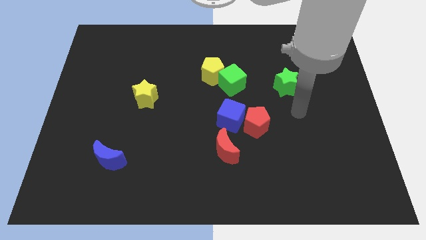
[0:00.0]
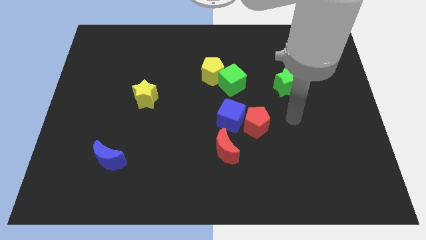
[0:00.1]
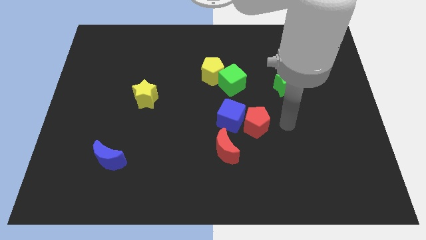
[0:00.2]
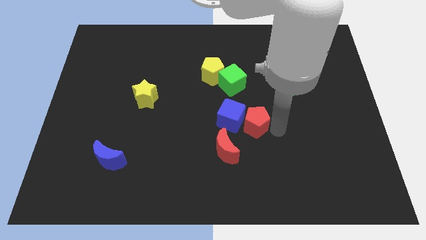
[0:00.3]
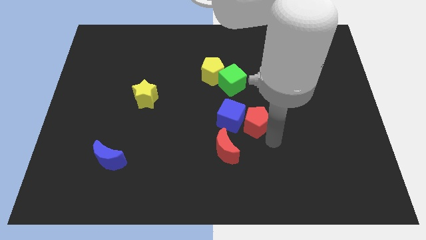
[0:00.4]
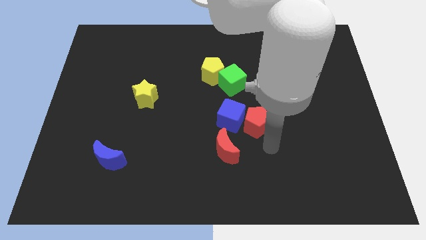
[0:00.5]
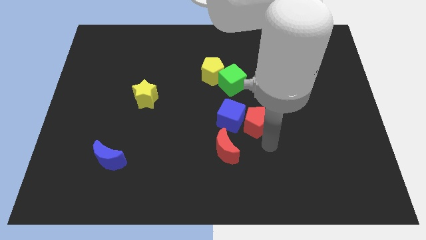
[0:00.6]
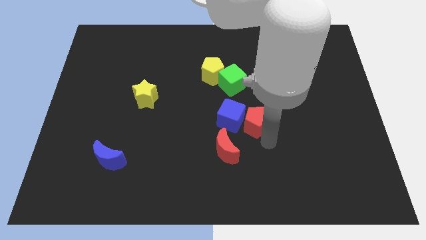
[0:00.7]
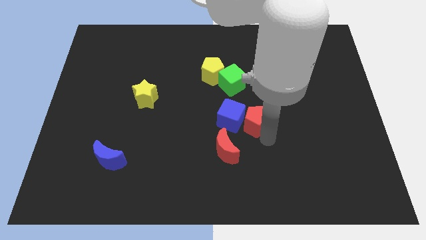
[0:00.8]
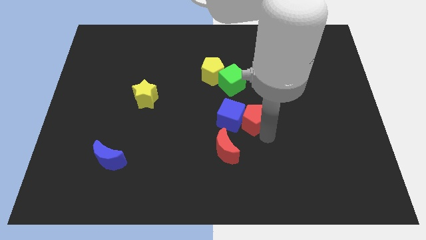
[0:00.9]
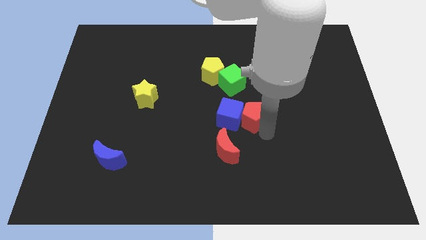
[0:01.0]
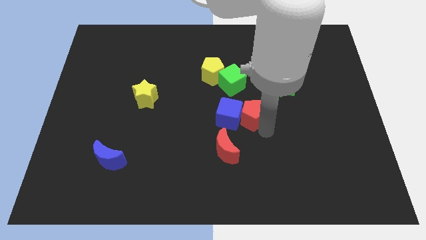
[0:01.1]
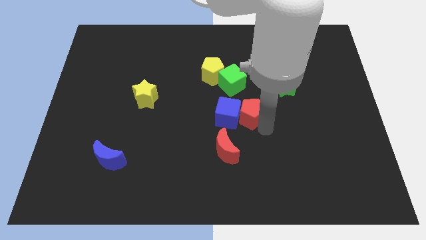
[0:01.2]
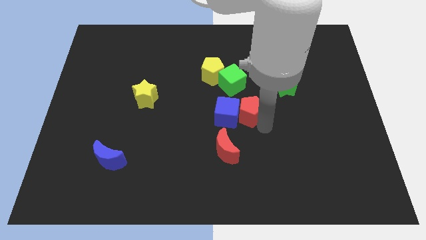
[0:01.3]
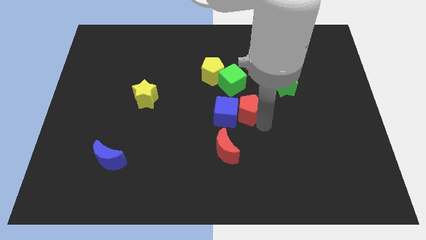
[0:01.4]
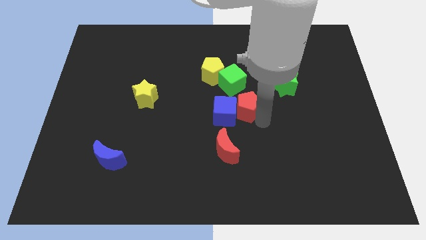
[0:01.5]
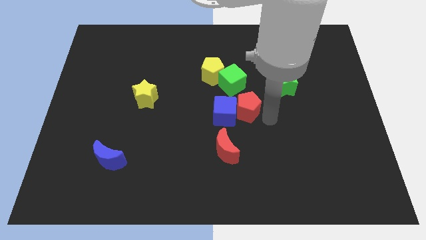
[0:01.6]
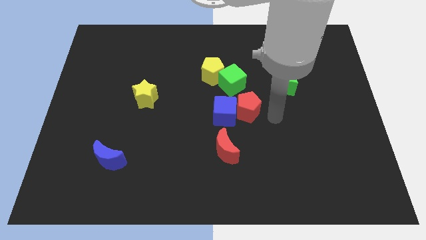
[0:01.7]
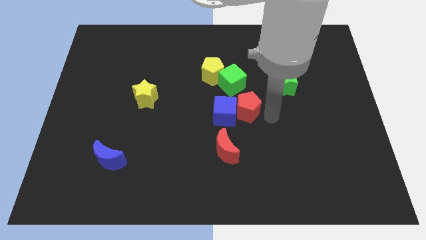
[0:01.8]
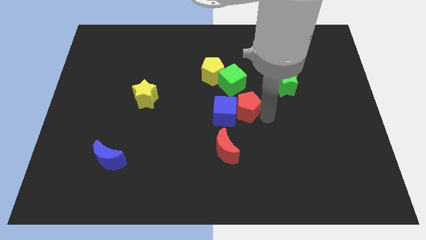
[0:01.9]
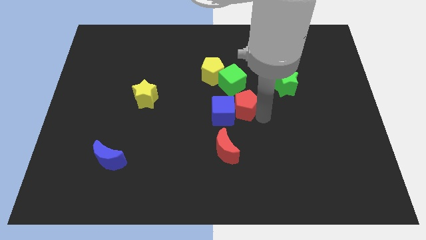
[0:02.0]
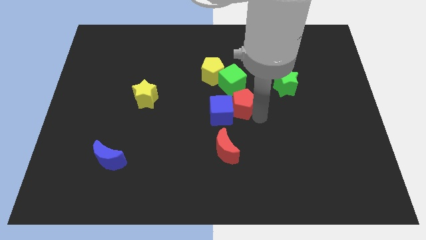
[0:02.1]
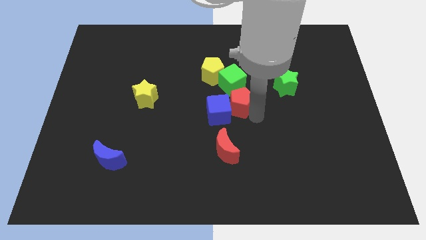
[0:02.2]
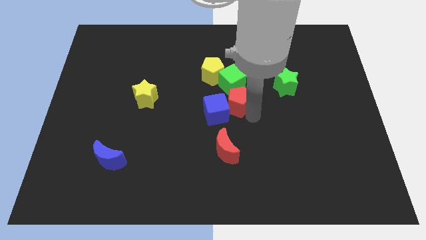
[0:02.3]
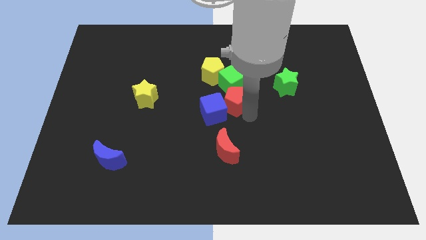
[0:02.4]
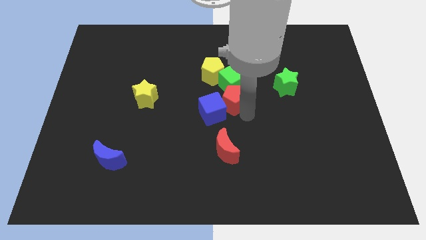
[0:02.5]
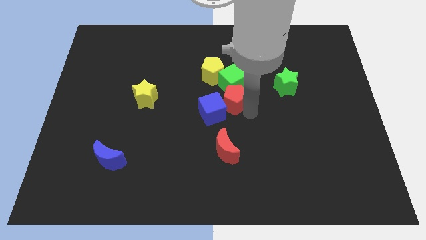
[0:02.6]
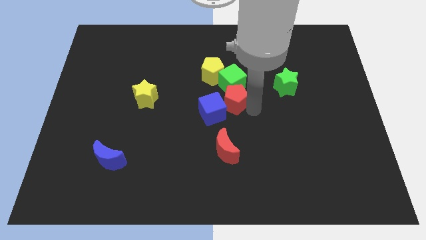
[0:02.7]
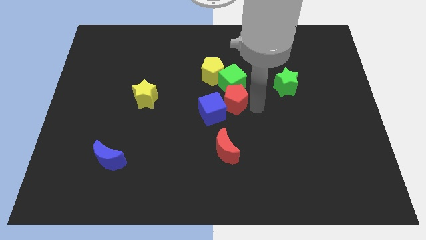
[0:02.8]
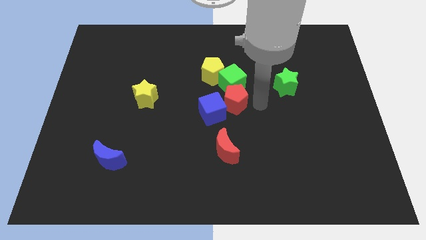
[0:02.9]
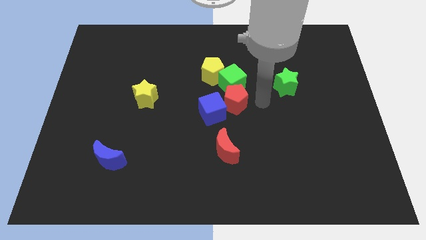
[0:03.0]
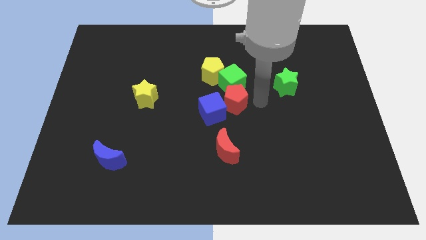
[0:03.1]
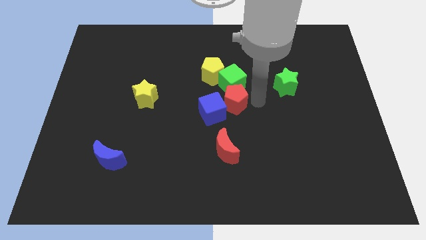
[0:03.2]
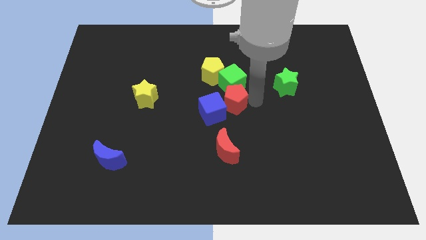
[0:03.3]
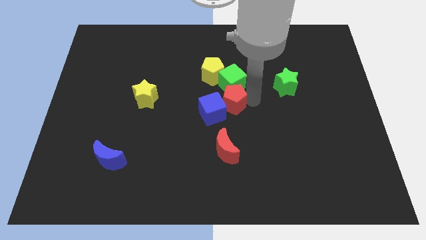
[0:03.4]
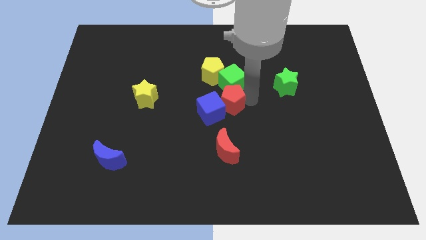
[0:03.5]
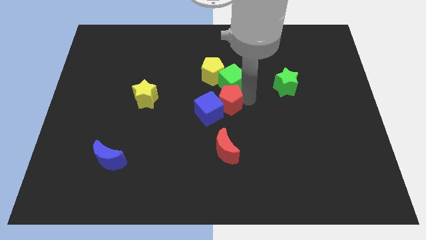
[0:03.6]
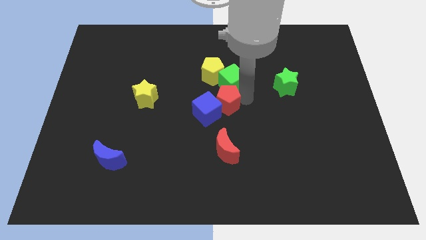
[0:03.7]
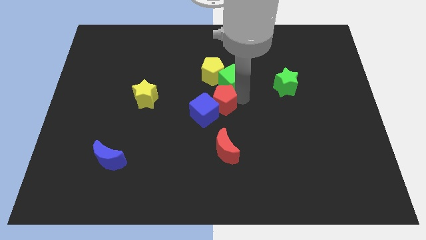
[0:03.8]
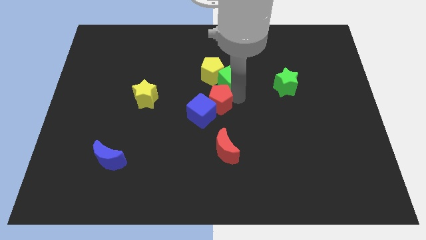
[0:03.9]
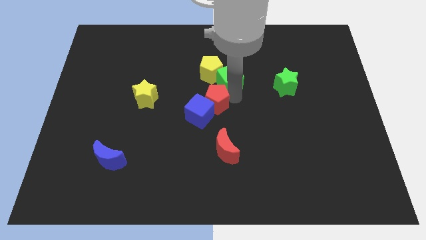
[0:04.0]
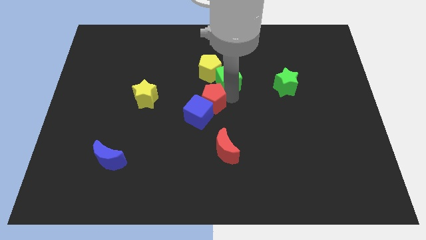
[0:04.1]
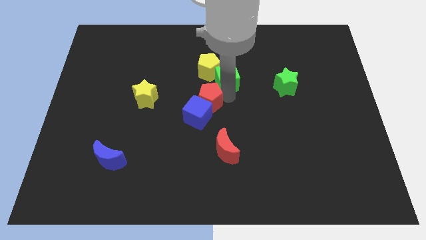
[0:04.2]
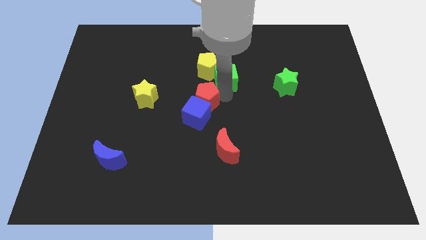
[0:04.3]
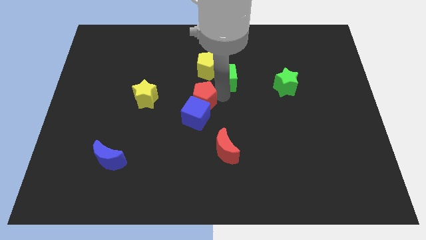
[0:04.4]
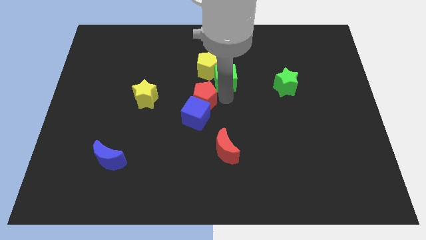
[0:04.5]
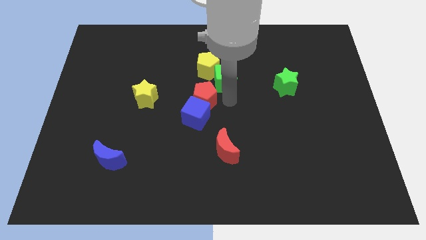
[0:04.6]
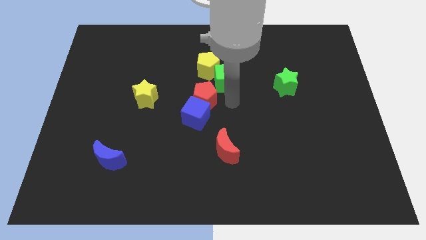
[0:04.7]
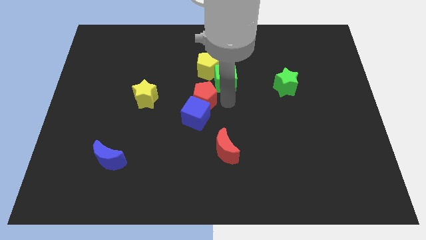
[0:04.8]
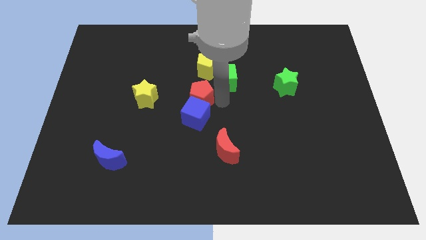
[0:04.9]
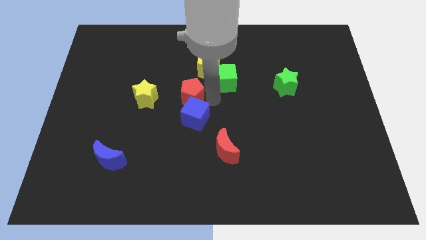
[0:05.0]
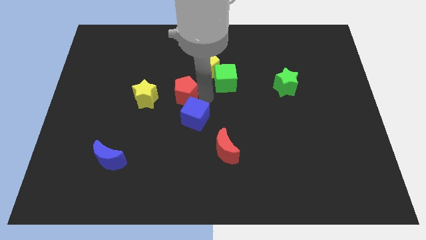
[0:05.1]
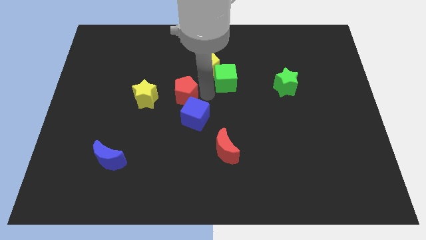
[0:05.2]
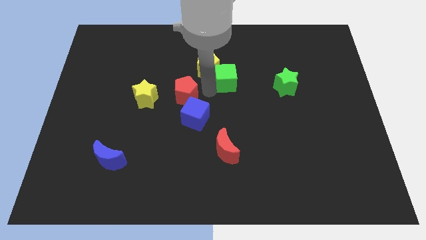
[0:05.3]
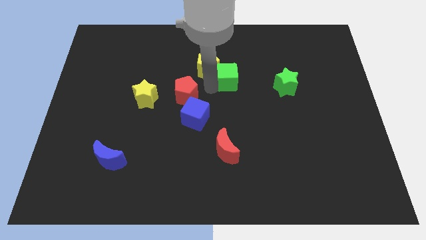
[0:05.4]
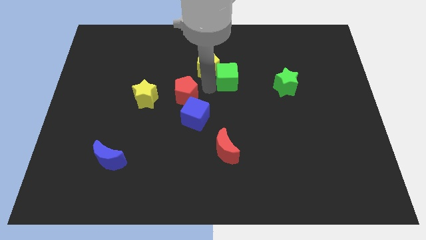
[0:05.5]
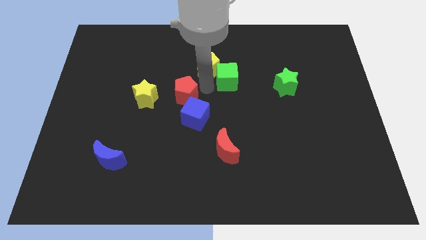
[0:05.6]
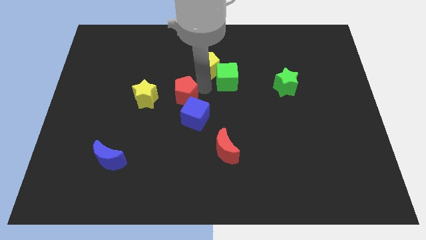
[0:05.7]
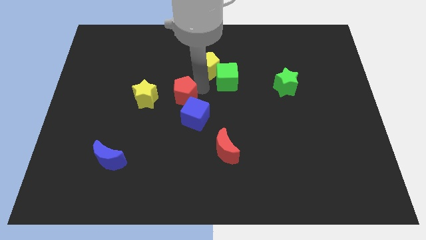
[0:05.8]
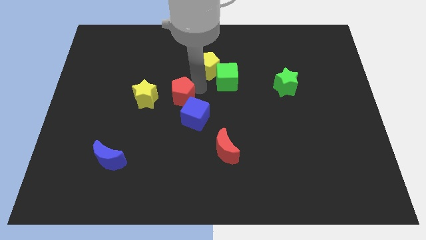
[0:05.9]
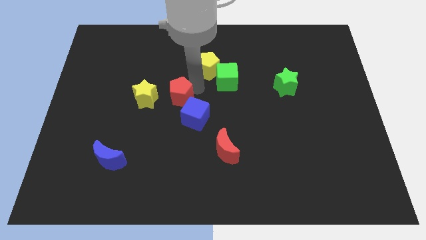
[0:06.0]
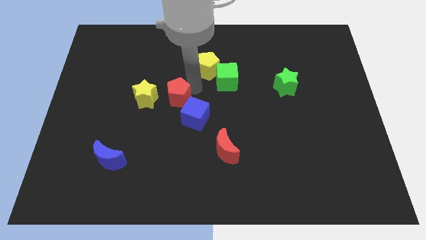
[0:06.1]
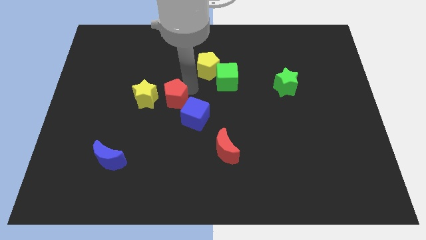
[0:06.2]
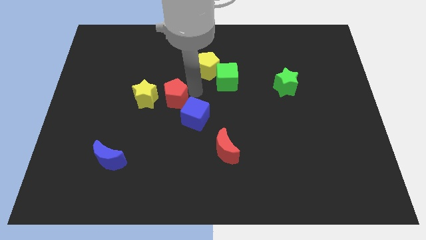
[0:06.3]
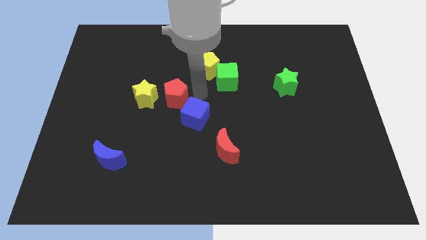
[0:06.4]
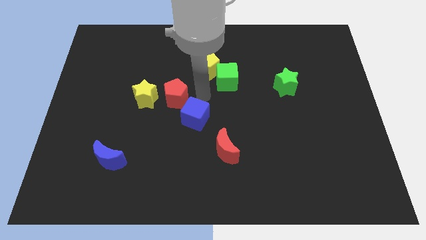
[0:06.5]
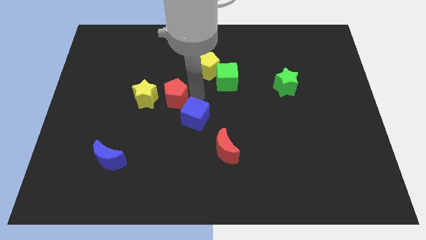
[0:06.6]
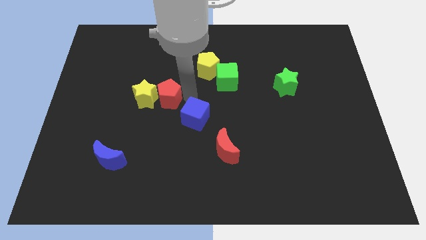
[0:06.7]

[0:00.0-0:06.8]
put the red pentagon next to the yellow star
